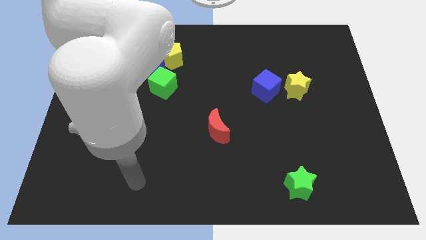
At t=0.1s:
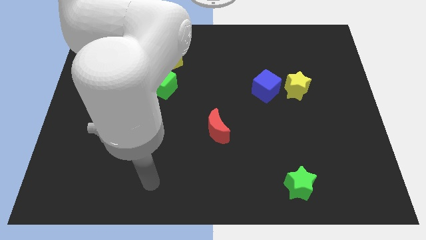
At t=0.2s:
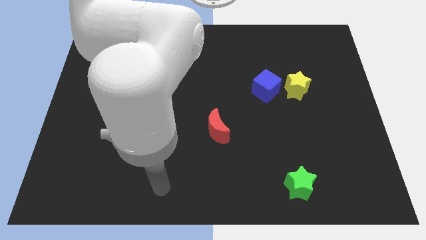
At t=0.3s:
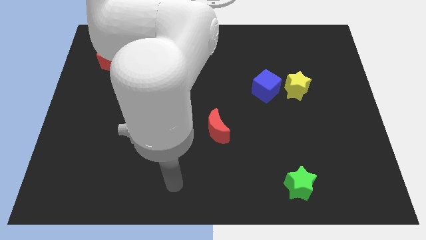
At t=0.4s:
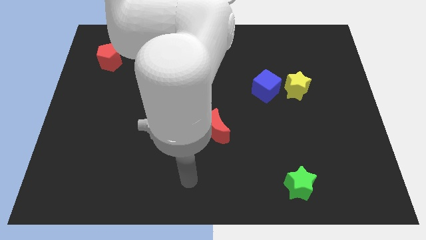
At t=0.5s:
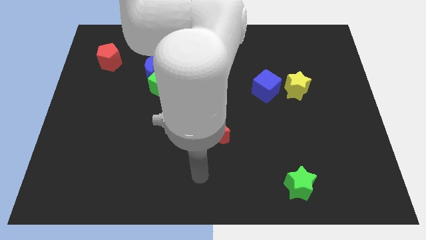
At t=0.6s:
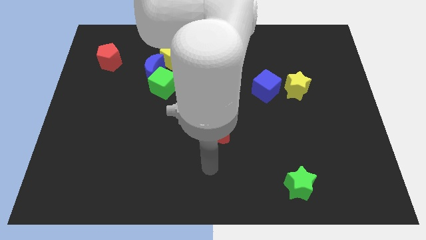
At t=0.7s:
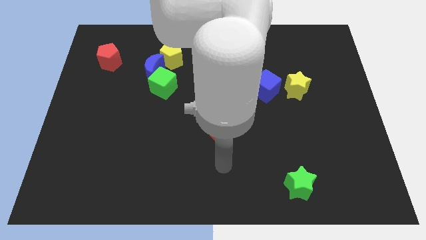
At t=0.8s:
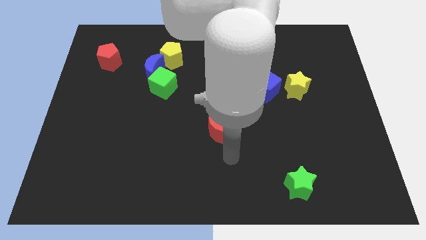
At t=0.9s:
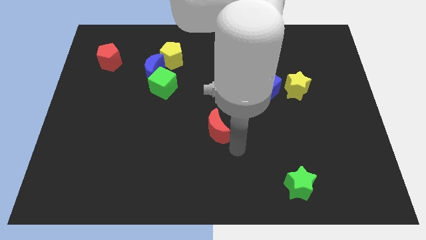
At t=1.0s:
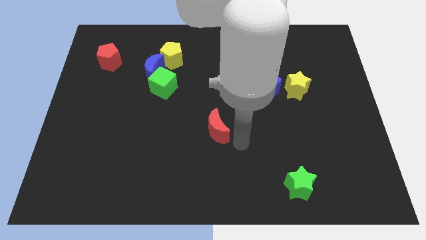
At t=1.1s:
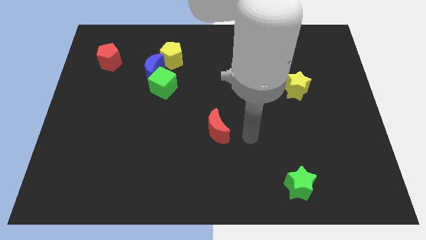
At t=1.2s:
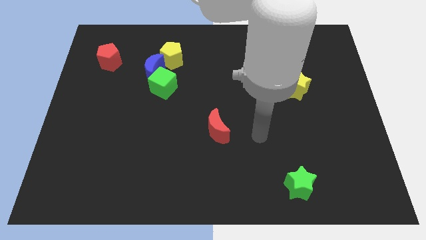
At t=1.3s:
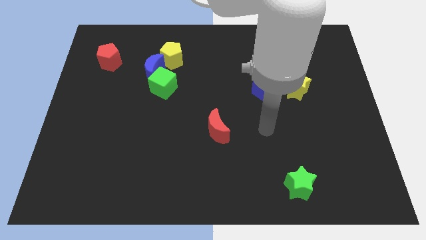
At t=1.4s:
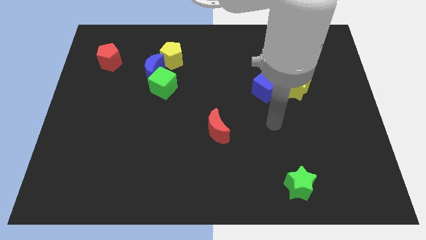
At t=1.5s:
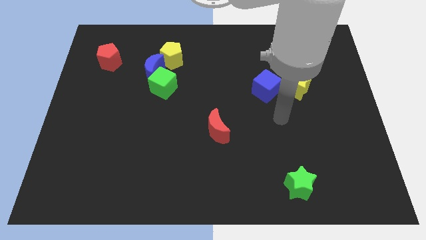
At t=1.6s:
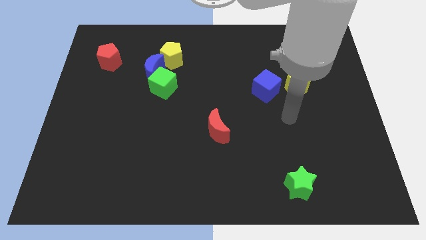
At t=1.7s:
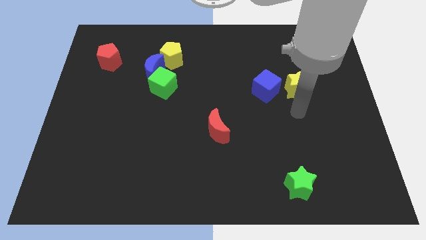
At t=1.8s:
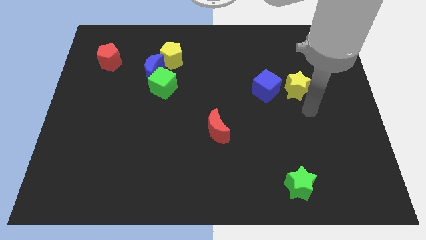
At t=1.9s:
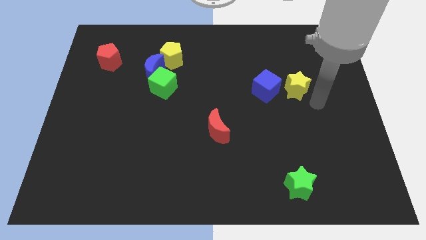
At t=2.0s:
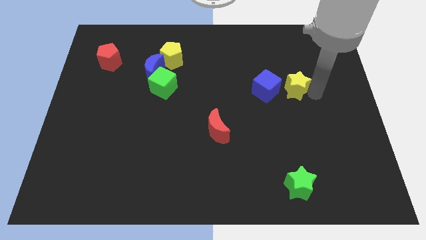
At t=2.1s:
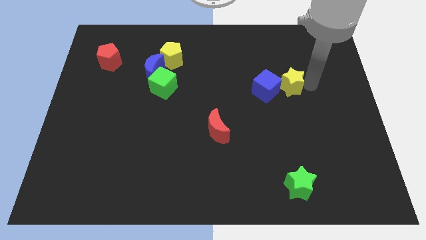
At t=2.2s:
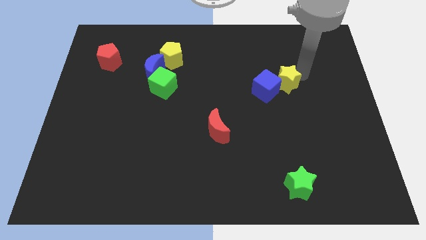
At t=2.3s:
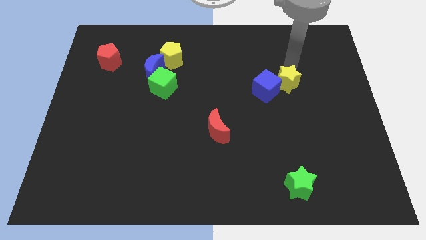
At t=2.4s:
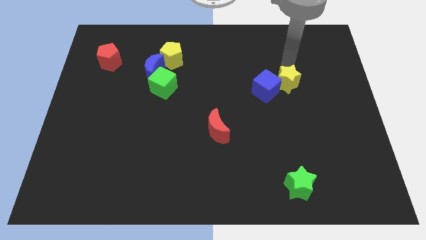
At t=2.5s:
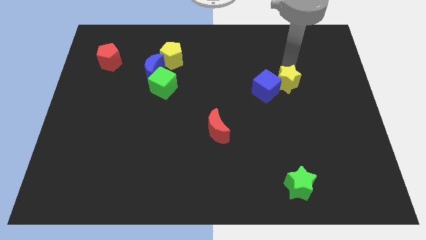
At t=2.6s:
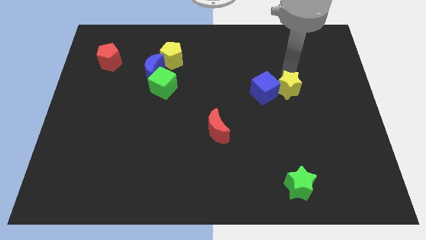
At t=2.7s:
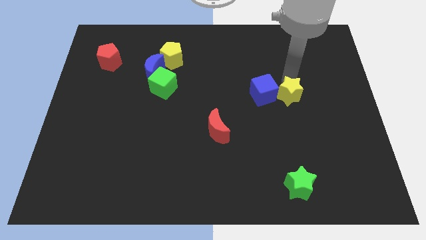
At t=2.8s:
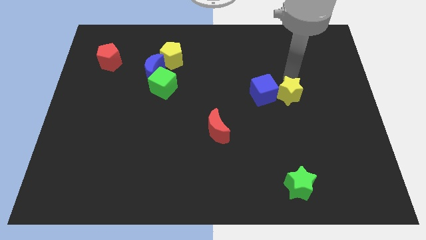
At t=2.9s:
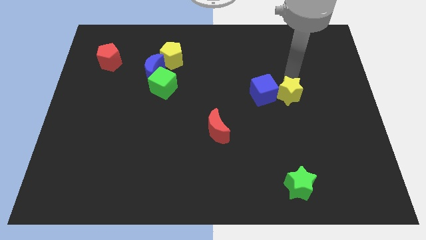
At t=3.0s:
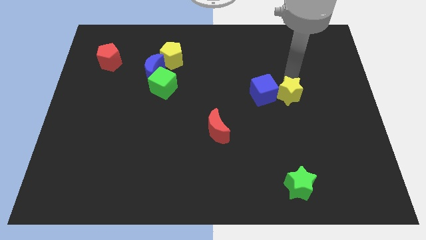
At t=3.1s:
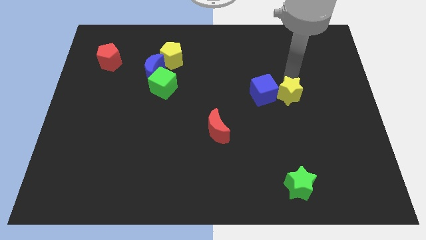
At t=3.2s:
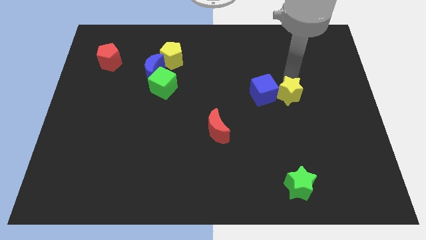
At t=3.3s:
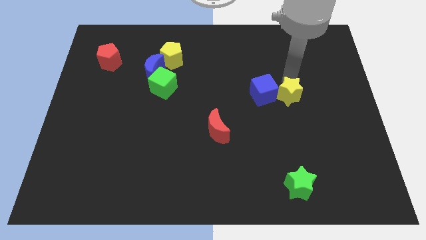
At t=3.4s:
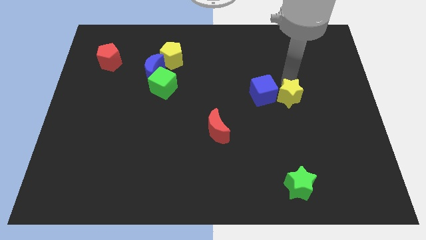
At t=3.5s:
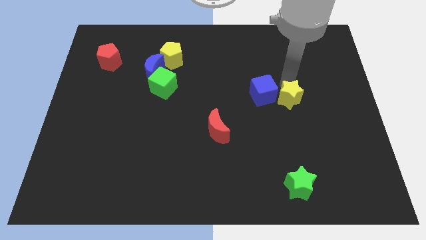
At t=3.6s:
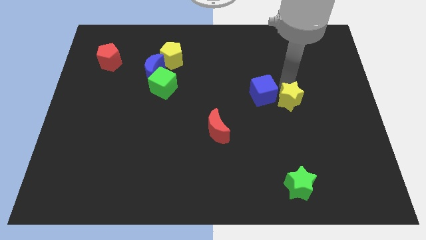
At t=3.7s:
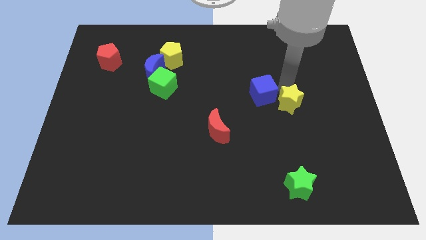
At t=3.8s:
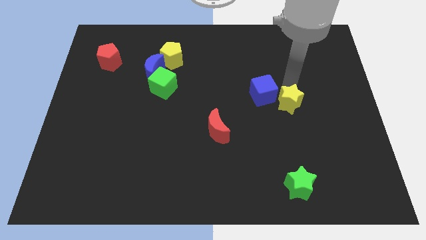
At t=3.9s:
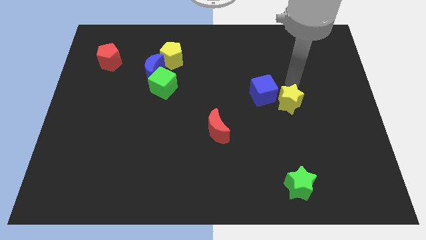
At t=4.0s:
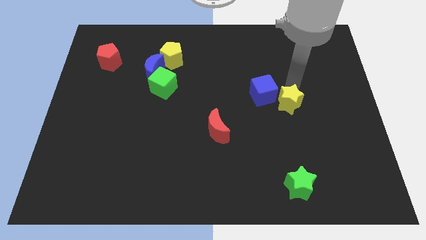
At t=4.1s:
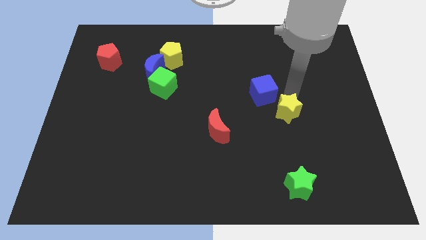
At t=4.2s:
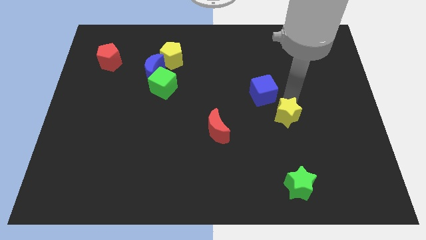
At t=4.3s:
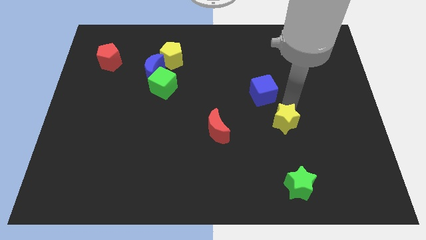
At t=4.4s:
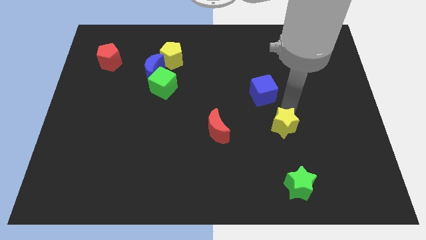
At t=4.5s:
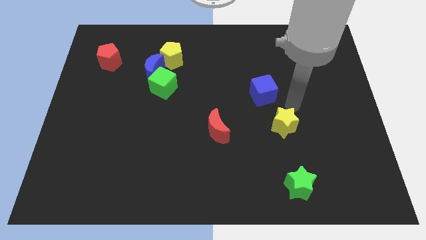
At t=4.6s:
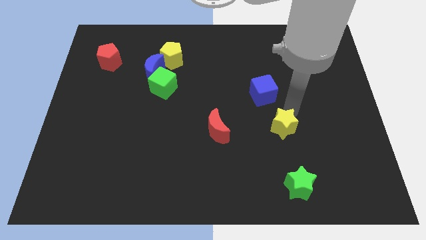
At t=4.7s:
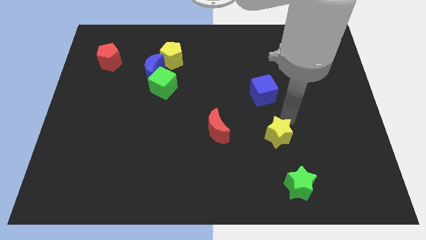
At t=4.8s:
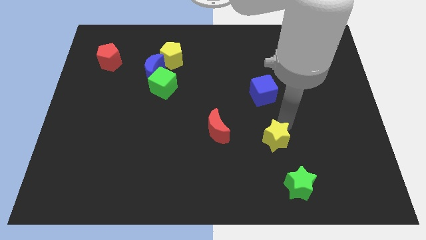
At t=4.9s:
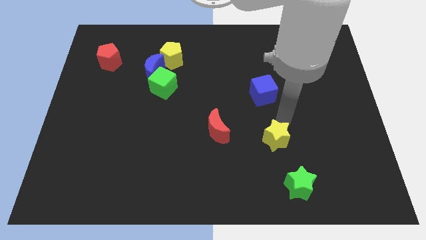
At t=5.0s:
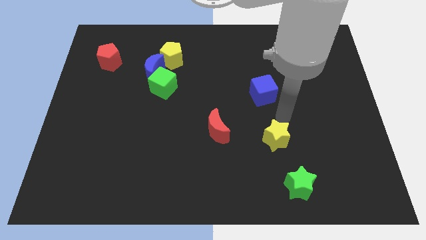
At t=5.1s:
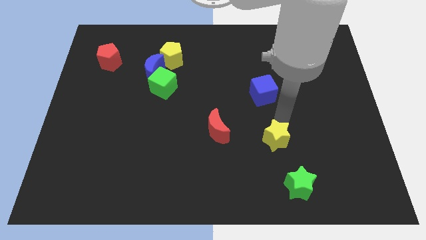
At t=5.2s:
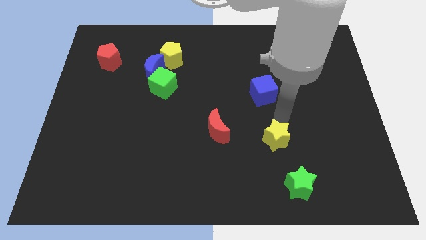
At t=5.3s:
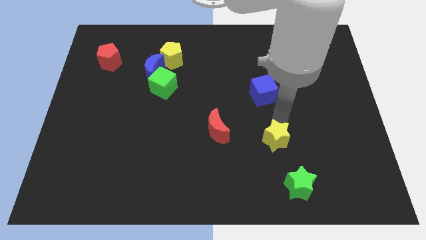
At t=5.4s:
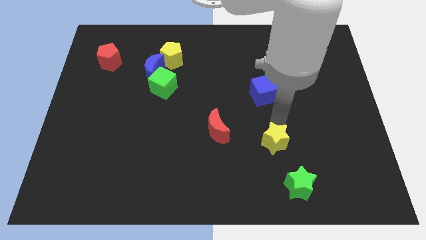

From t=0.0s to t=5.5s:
push the yellow star to the top left of the green star

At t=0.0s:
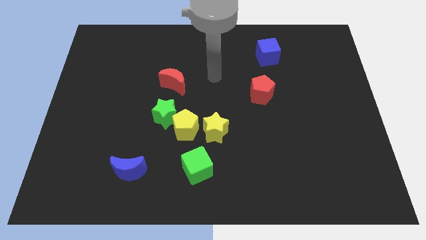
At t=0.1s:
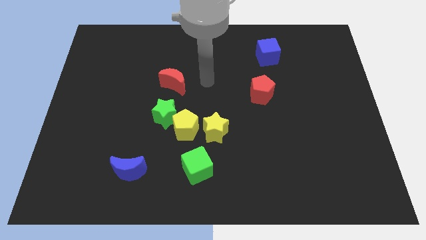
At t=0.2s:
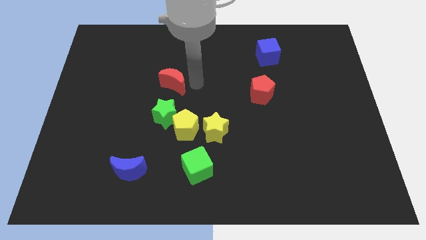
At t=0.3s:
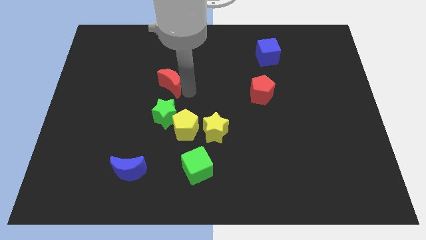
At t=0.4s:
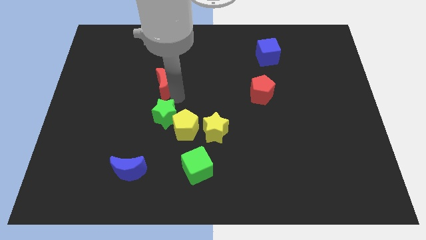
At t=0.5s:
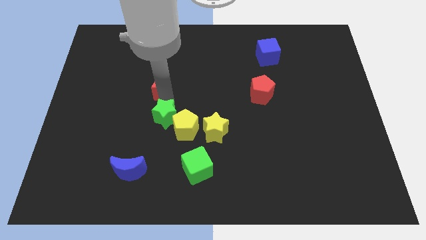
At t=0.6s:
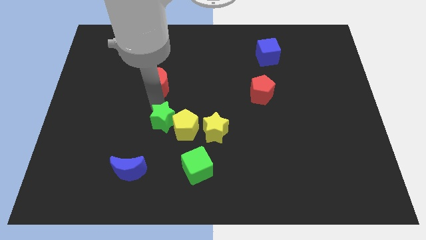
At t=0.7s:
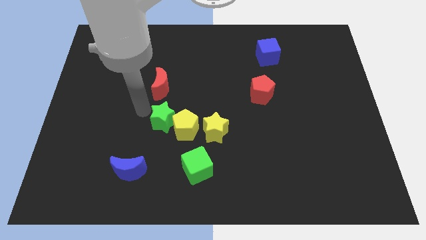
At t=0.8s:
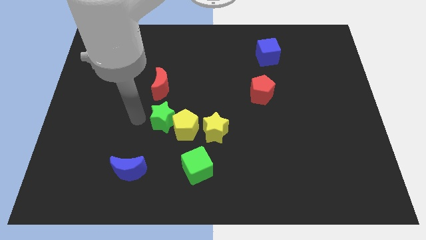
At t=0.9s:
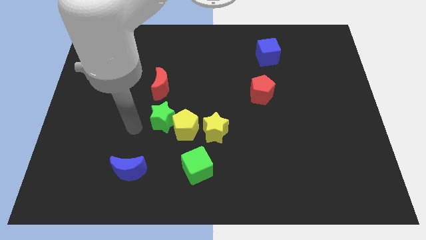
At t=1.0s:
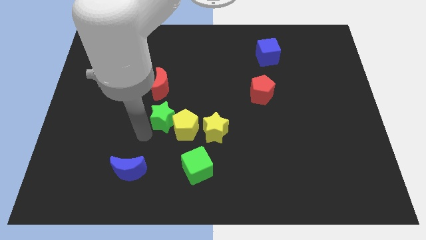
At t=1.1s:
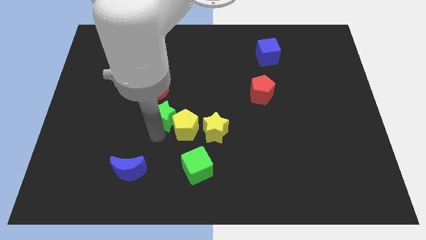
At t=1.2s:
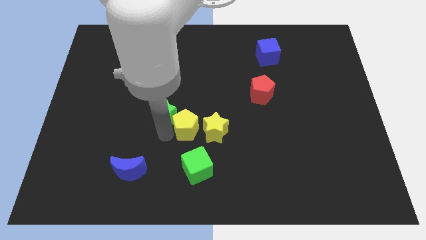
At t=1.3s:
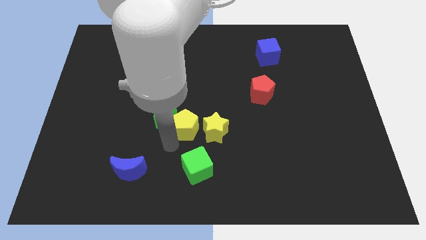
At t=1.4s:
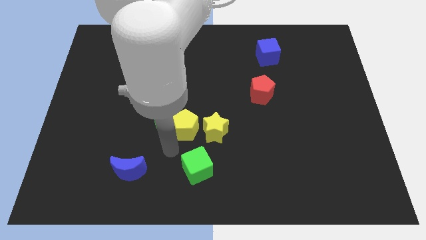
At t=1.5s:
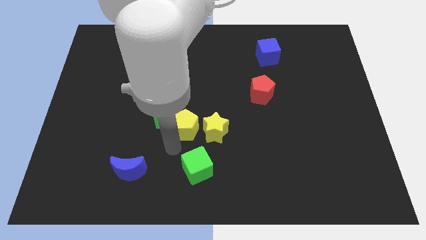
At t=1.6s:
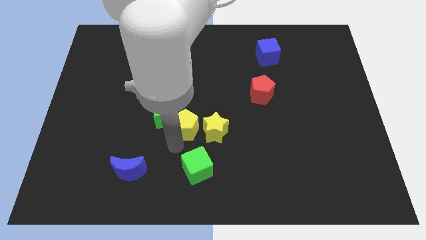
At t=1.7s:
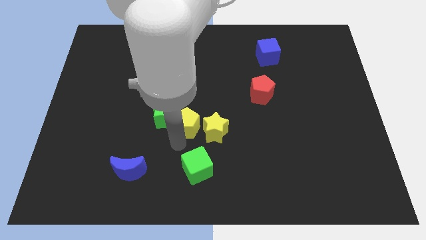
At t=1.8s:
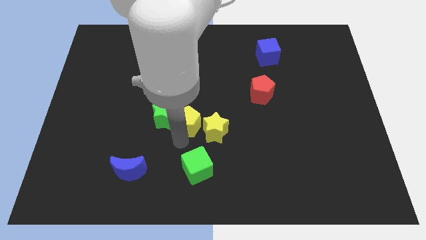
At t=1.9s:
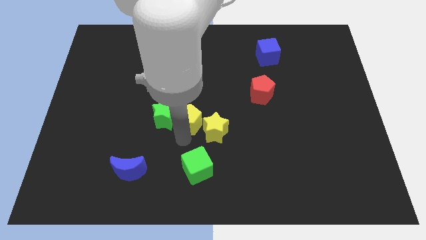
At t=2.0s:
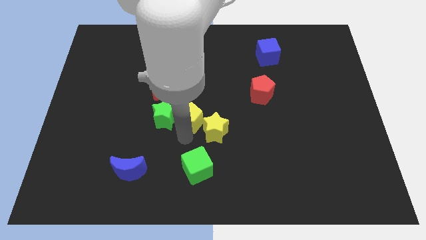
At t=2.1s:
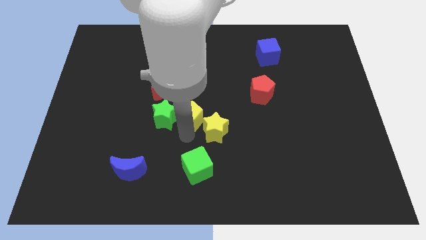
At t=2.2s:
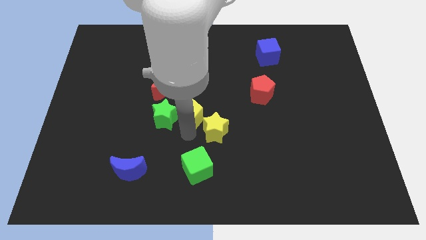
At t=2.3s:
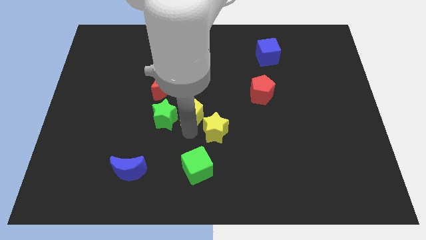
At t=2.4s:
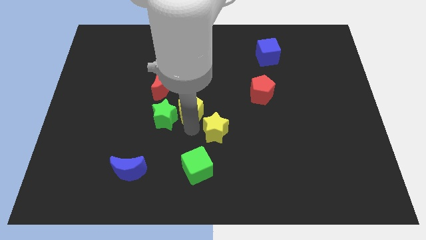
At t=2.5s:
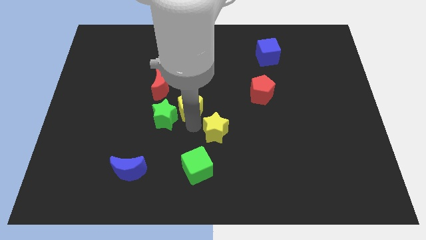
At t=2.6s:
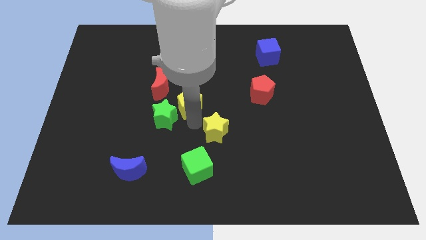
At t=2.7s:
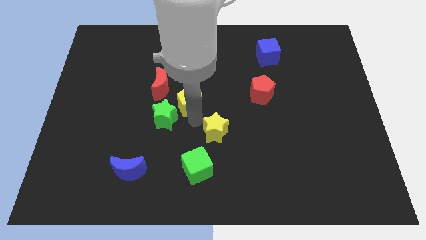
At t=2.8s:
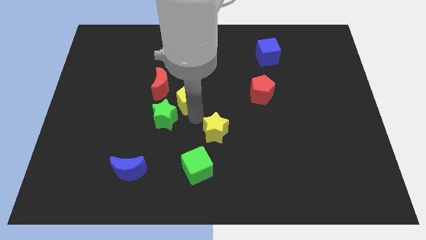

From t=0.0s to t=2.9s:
move the yellow pentagon to the right of the red moon
